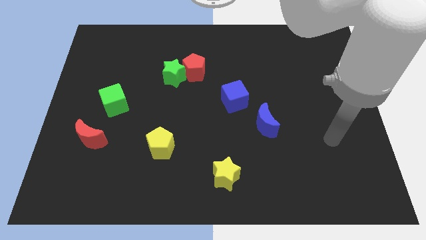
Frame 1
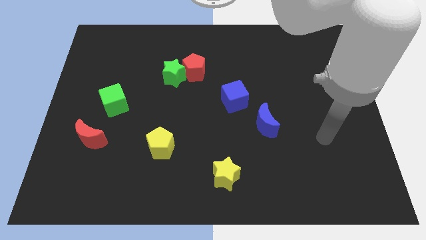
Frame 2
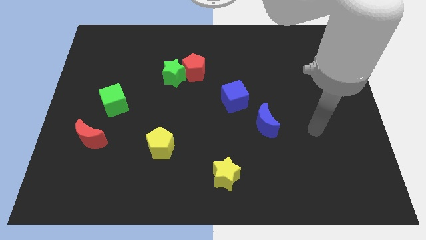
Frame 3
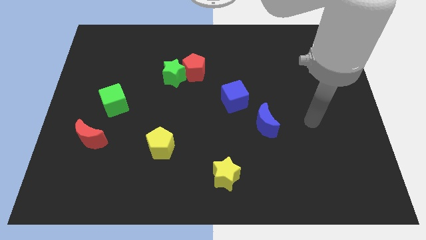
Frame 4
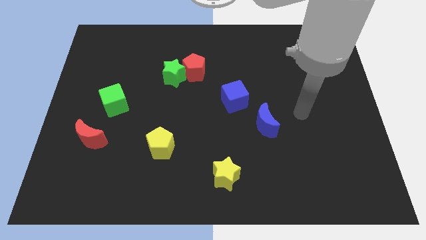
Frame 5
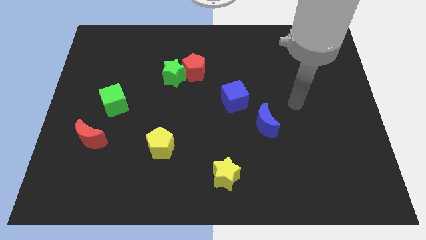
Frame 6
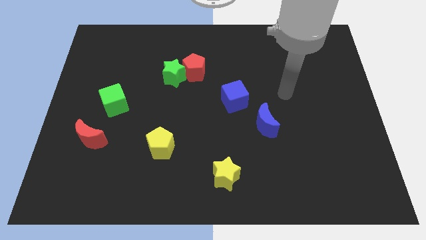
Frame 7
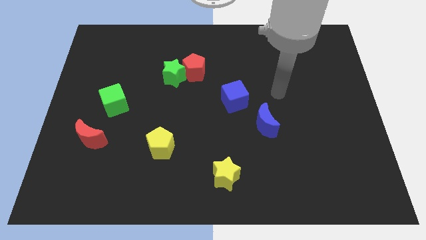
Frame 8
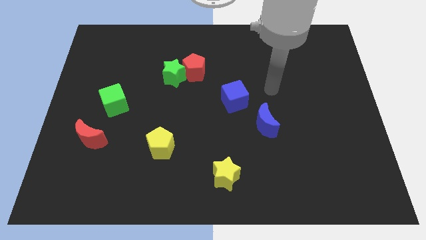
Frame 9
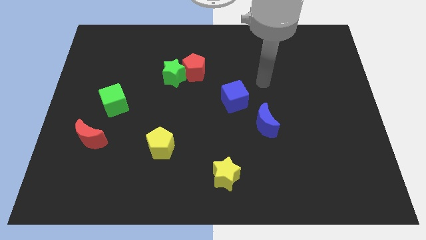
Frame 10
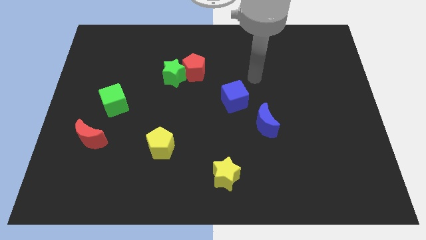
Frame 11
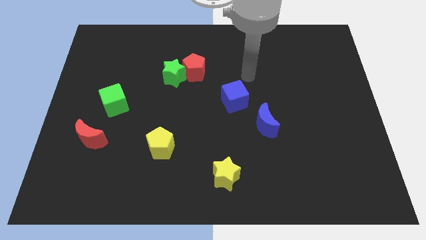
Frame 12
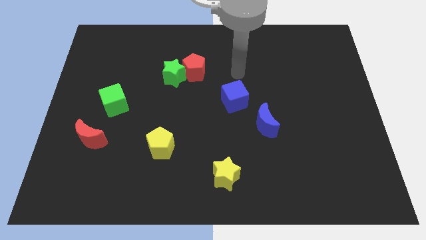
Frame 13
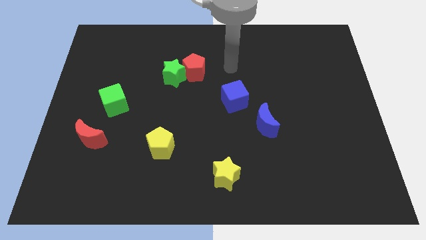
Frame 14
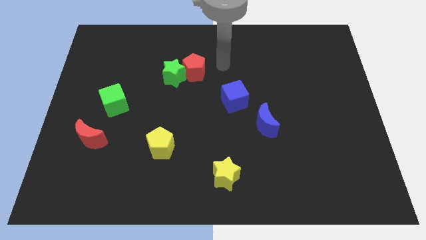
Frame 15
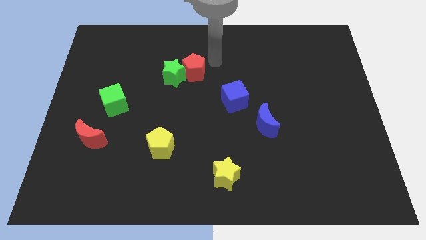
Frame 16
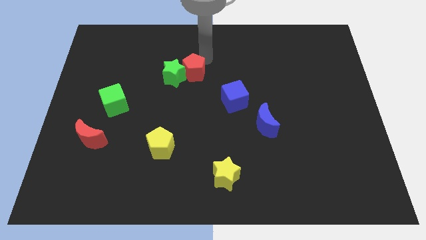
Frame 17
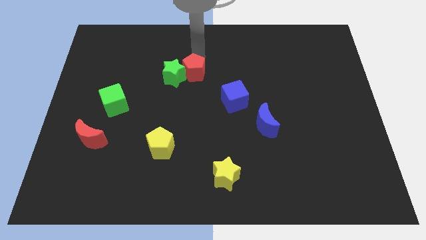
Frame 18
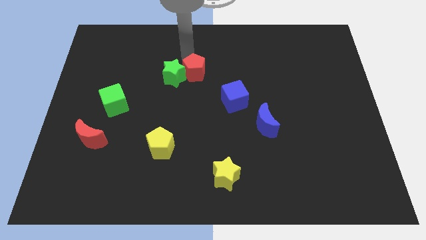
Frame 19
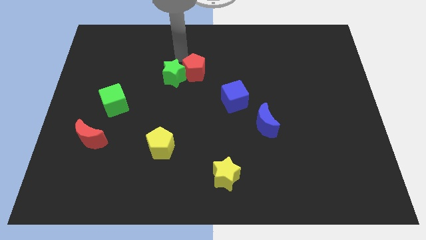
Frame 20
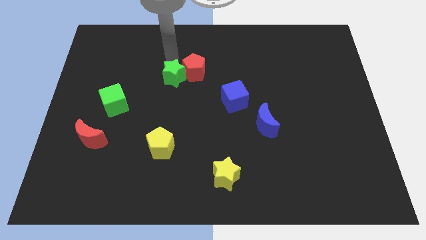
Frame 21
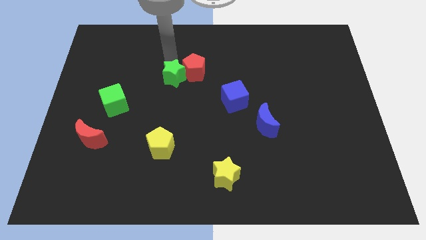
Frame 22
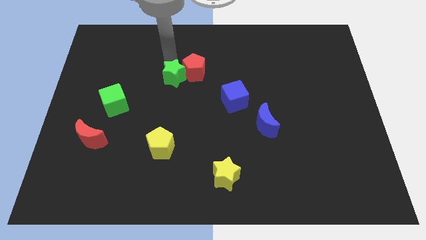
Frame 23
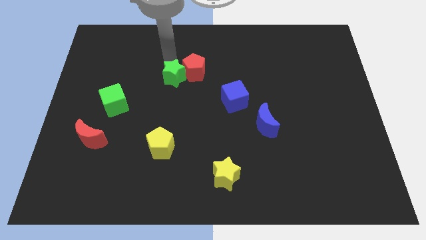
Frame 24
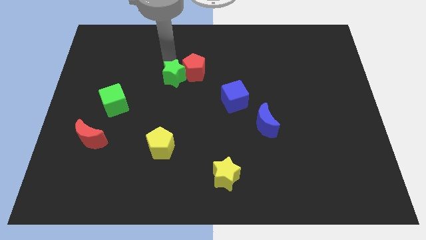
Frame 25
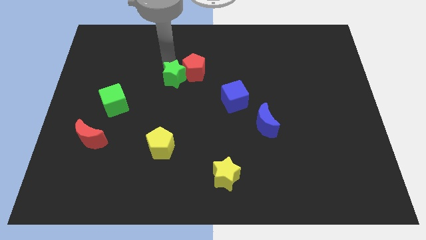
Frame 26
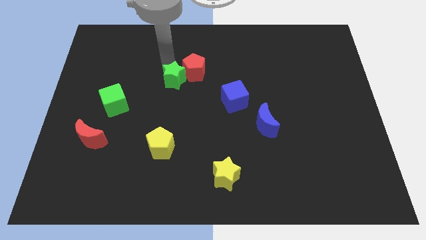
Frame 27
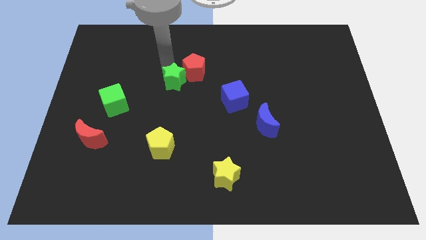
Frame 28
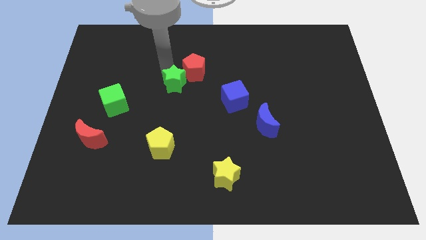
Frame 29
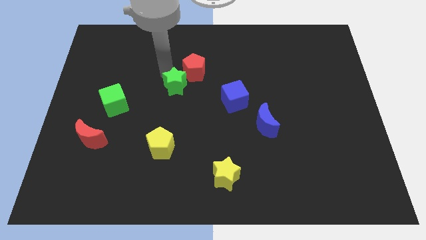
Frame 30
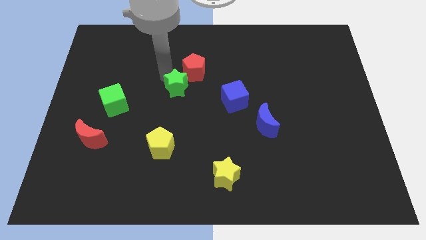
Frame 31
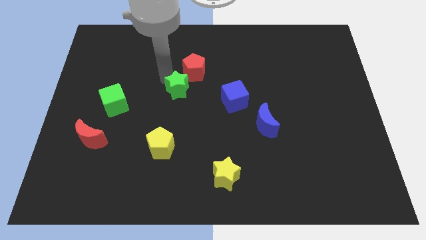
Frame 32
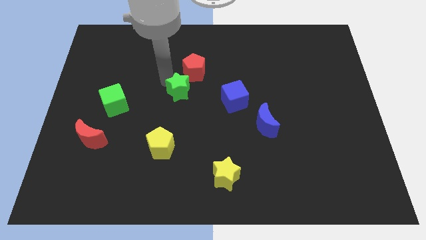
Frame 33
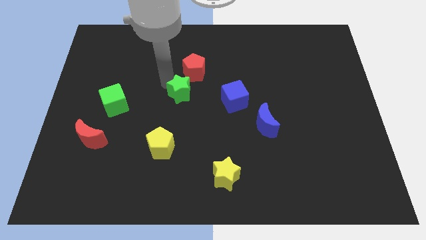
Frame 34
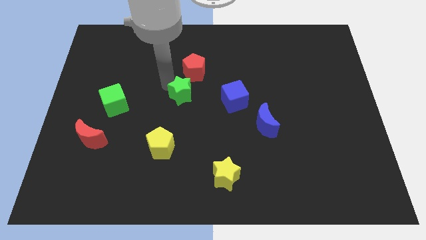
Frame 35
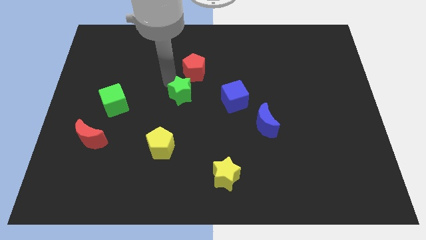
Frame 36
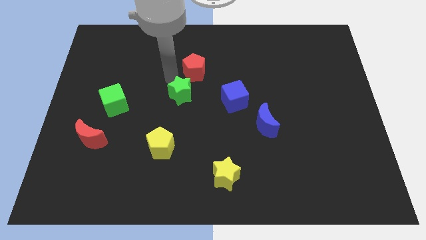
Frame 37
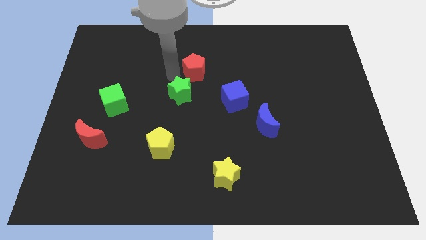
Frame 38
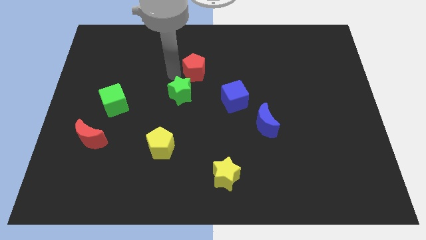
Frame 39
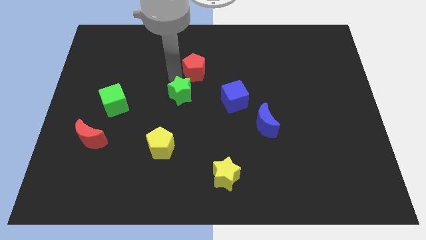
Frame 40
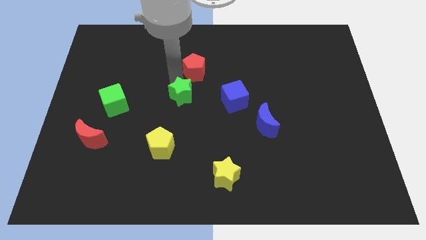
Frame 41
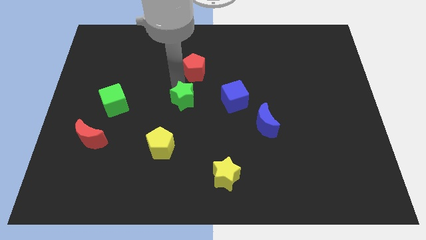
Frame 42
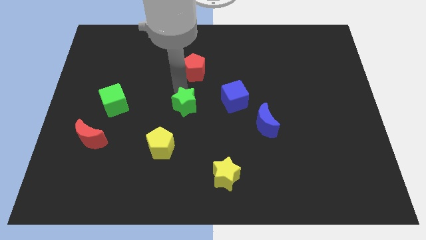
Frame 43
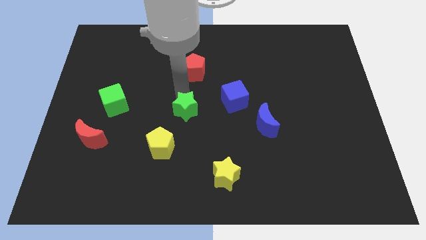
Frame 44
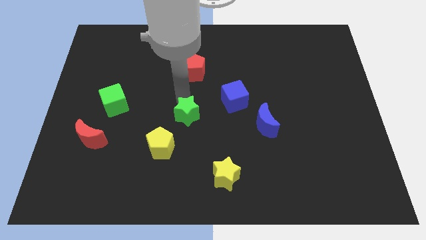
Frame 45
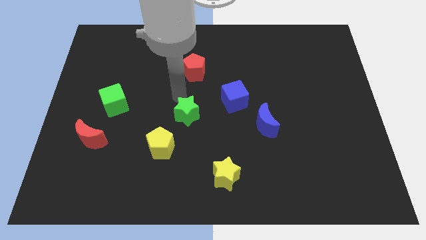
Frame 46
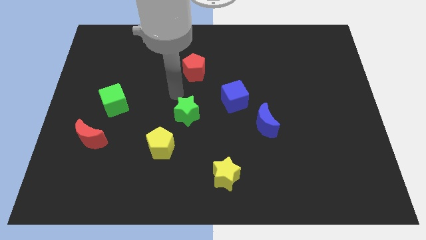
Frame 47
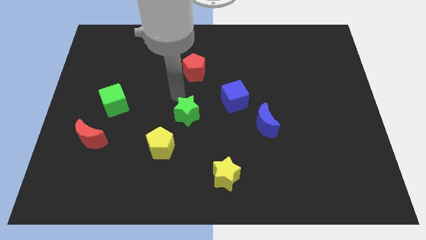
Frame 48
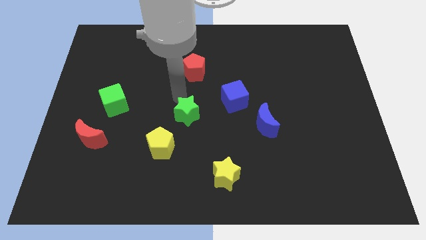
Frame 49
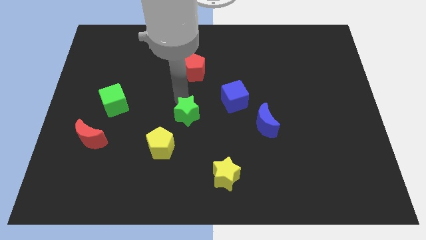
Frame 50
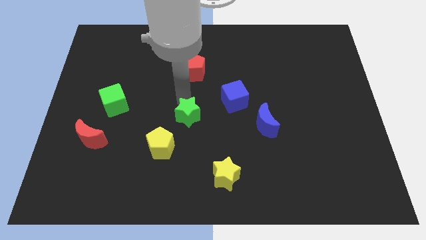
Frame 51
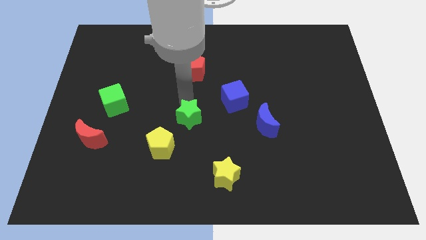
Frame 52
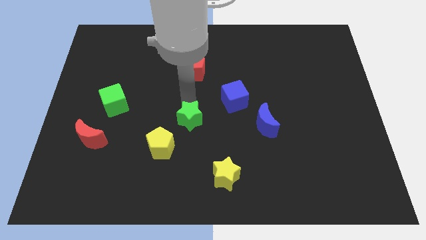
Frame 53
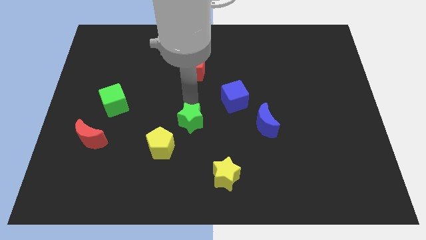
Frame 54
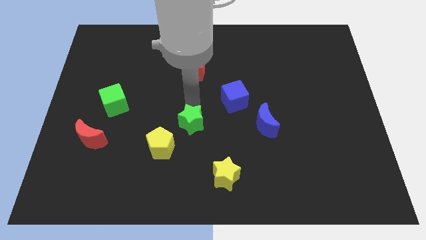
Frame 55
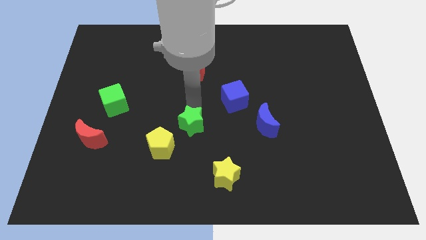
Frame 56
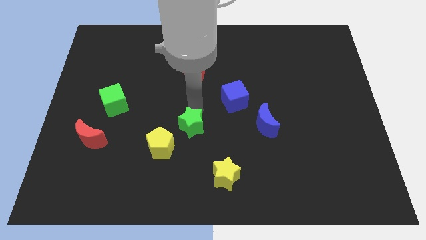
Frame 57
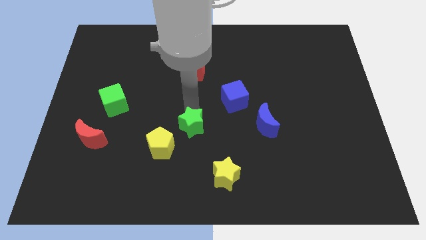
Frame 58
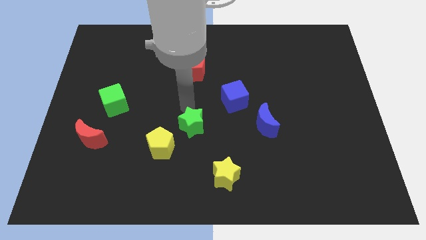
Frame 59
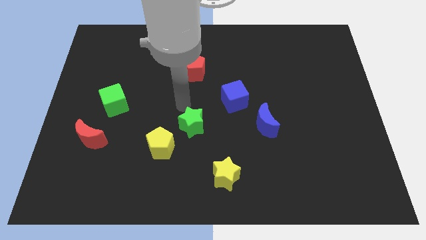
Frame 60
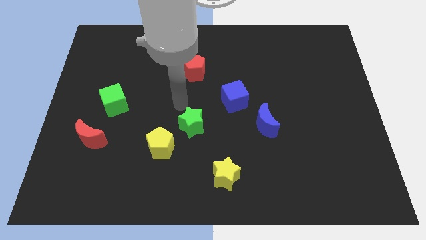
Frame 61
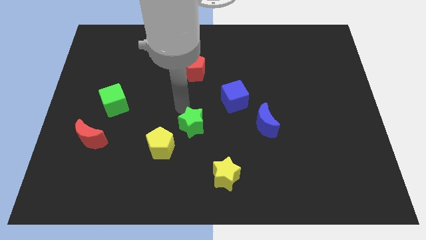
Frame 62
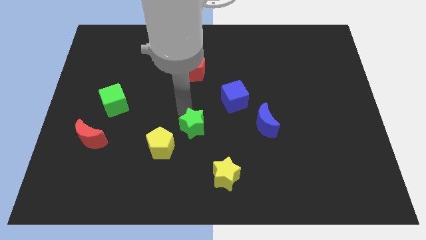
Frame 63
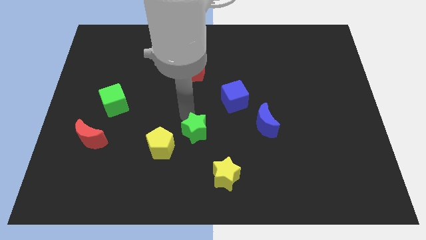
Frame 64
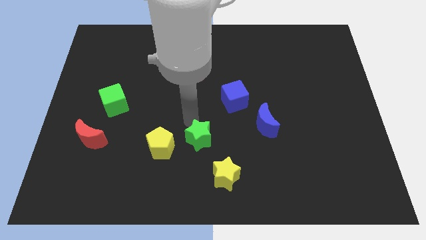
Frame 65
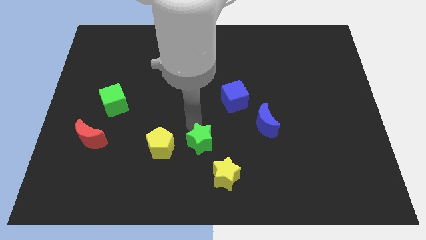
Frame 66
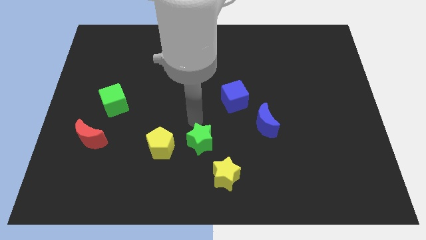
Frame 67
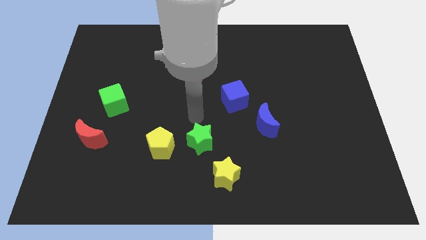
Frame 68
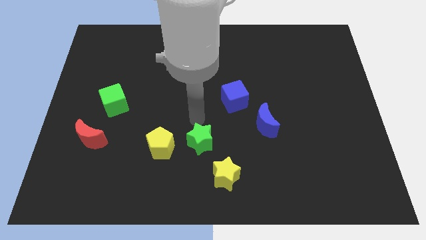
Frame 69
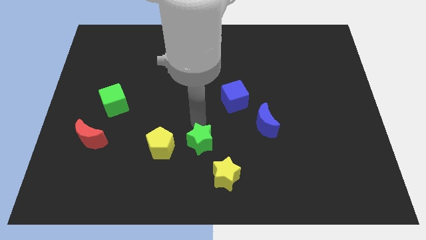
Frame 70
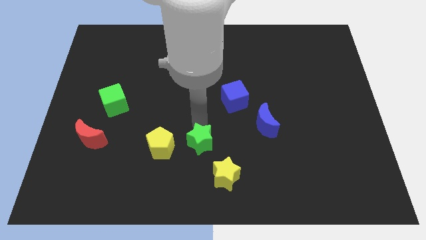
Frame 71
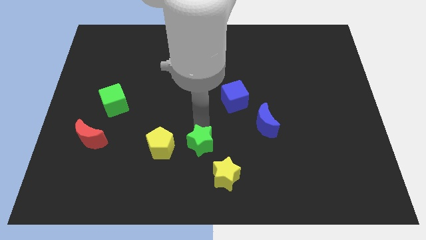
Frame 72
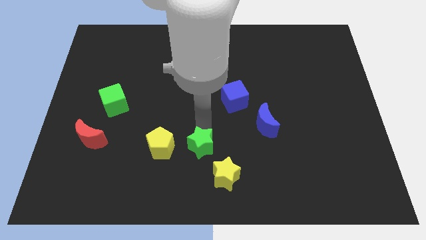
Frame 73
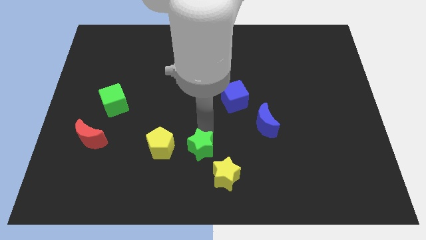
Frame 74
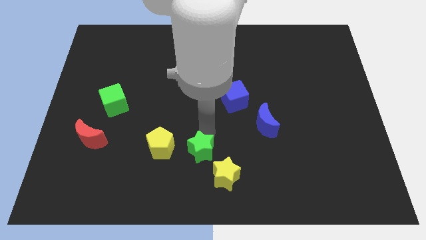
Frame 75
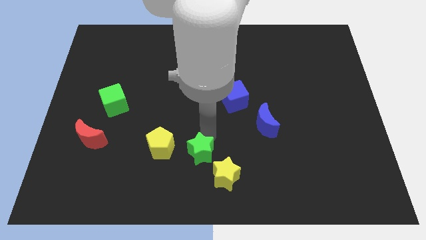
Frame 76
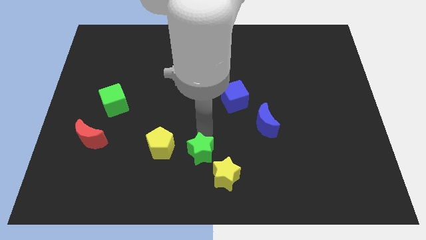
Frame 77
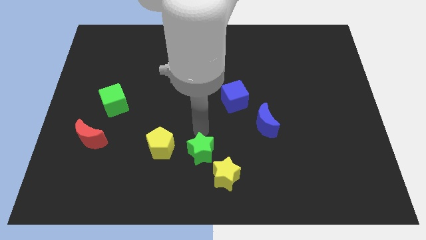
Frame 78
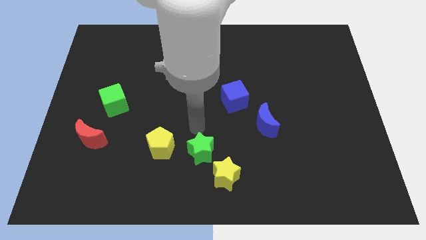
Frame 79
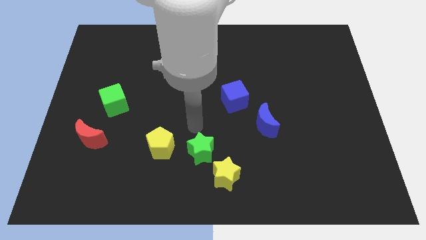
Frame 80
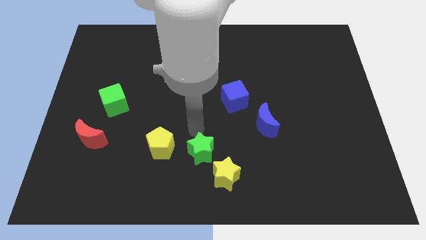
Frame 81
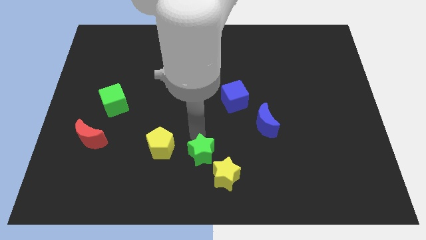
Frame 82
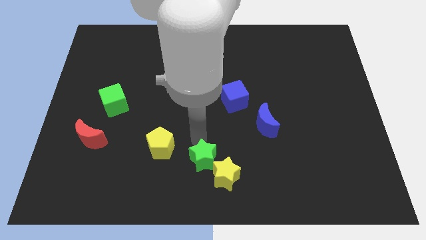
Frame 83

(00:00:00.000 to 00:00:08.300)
put the green star to the bottom
